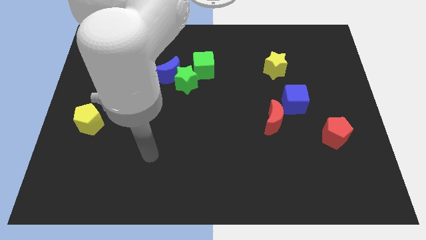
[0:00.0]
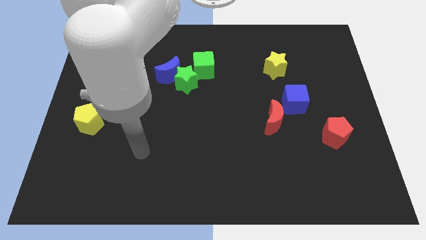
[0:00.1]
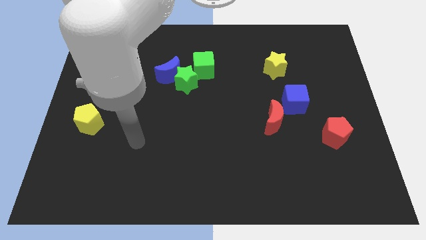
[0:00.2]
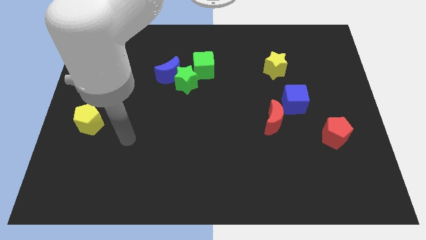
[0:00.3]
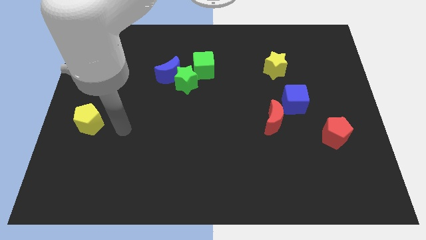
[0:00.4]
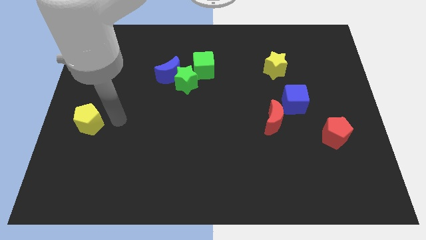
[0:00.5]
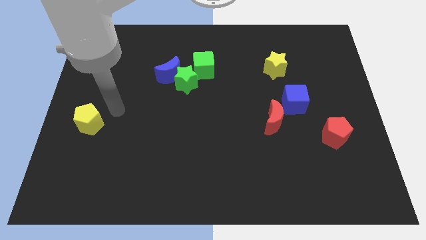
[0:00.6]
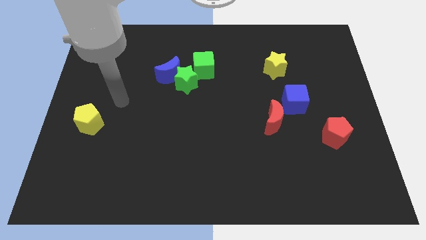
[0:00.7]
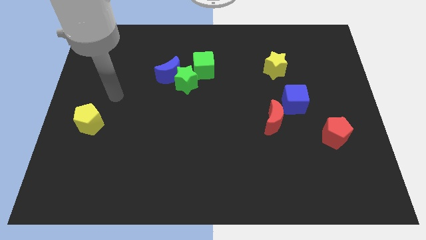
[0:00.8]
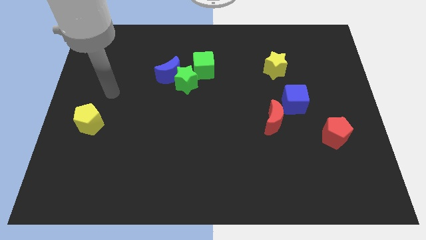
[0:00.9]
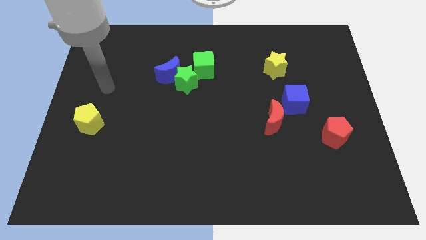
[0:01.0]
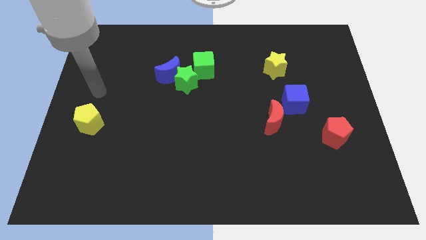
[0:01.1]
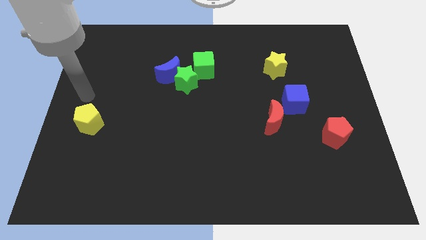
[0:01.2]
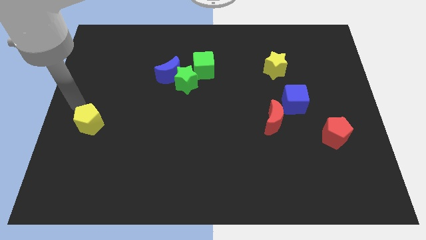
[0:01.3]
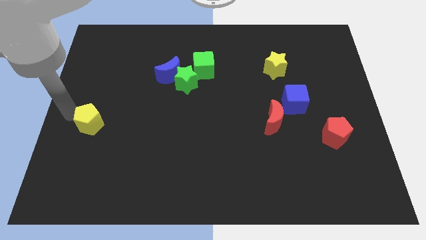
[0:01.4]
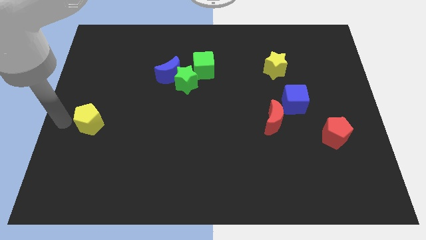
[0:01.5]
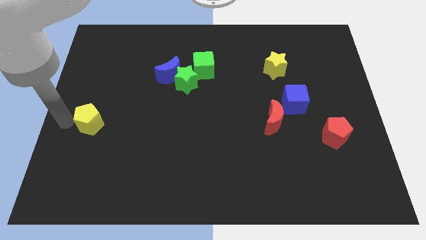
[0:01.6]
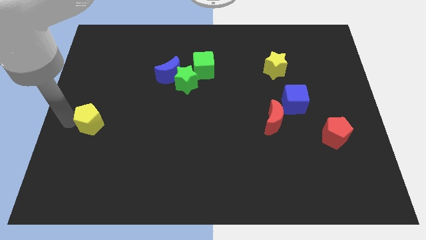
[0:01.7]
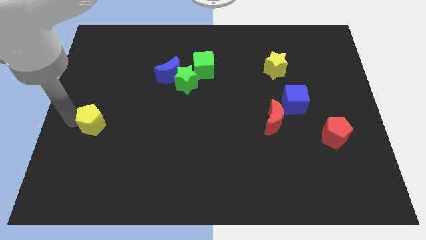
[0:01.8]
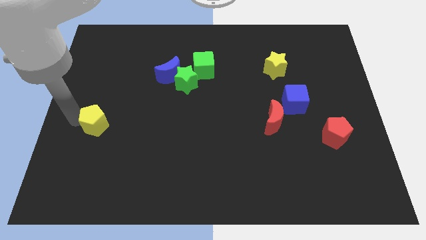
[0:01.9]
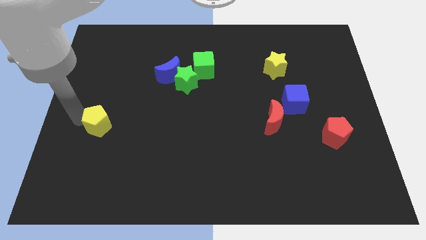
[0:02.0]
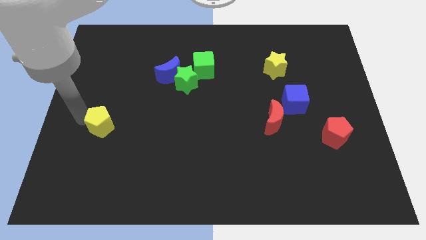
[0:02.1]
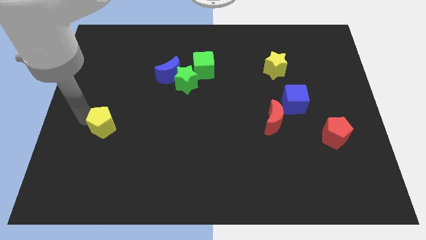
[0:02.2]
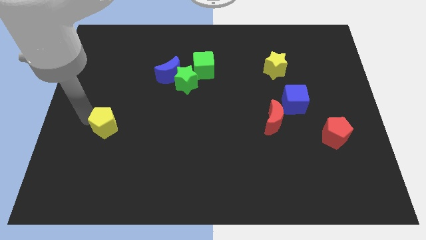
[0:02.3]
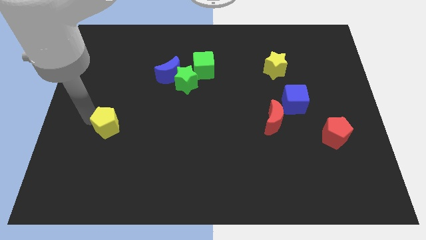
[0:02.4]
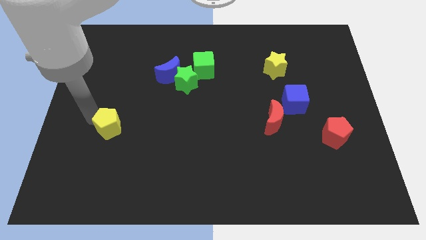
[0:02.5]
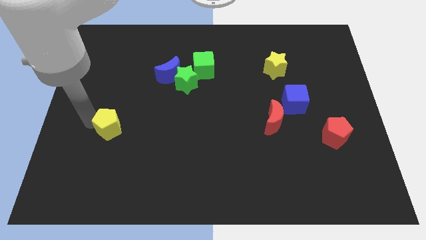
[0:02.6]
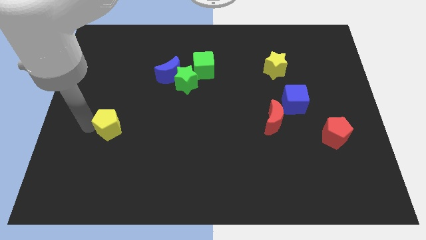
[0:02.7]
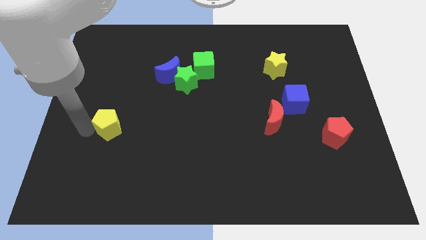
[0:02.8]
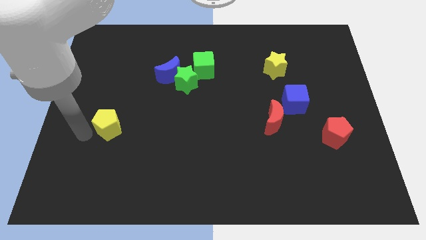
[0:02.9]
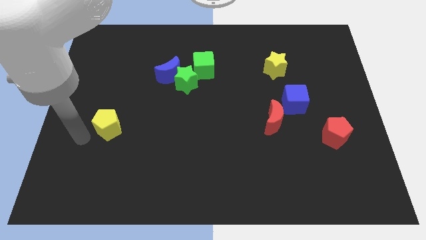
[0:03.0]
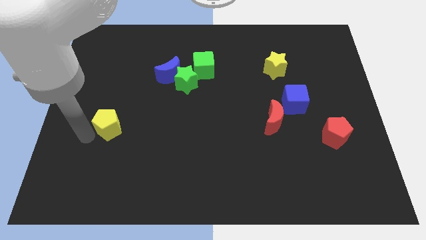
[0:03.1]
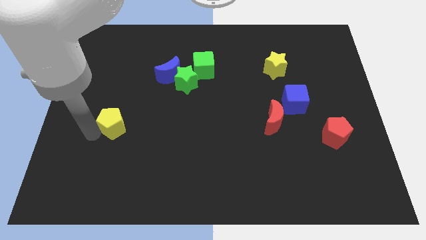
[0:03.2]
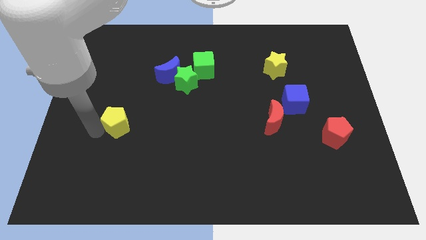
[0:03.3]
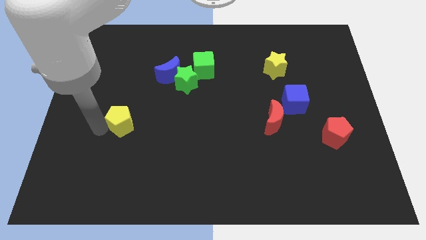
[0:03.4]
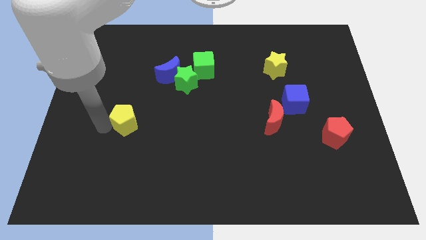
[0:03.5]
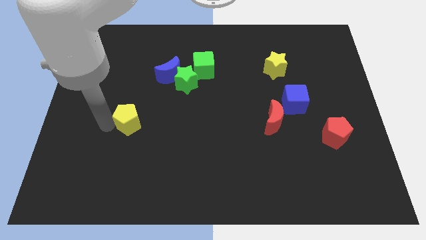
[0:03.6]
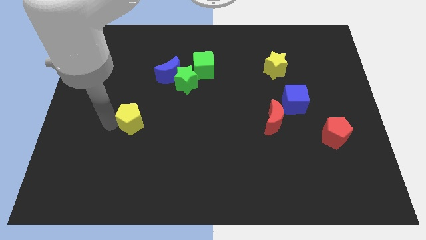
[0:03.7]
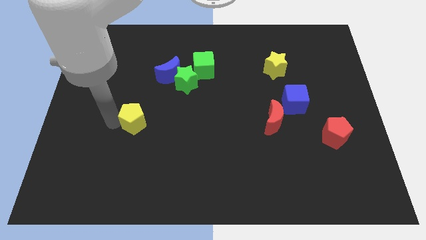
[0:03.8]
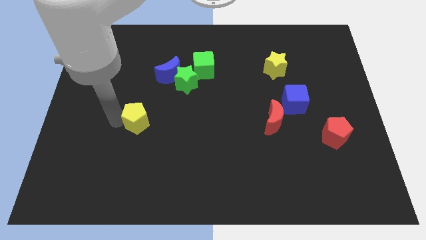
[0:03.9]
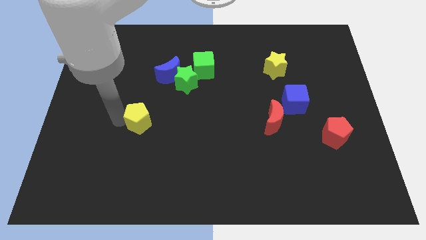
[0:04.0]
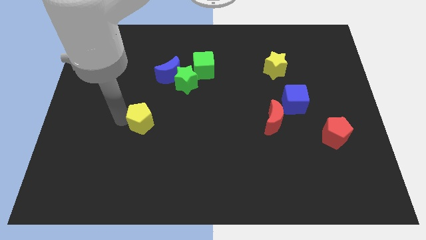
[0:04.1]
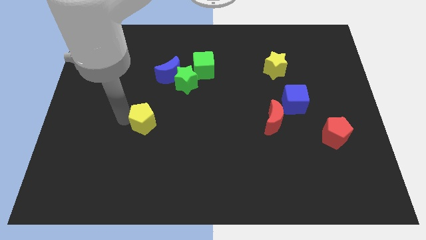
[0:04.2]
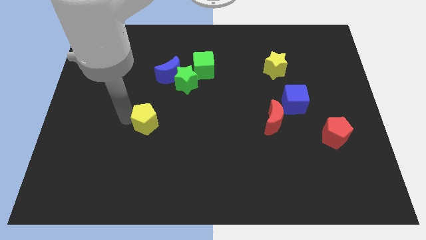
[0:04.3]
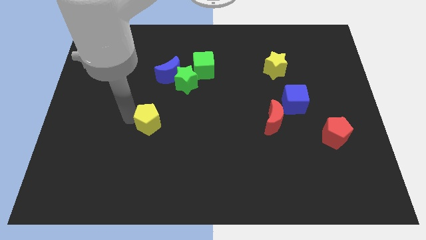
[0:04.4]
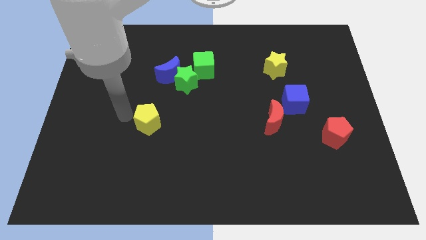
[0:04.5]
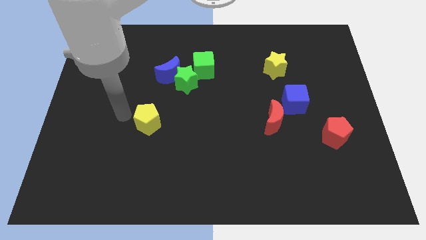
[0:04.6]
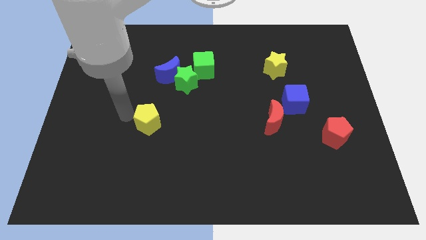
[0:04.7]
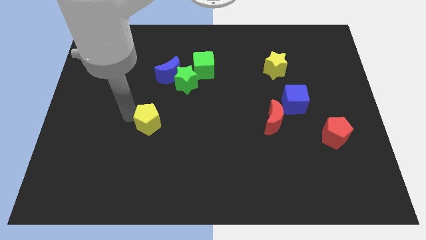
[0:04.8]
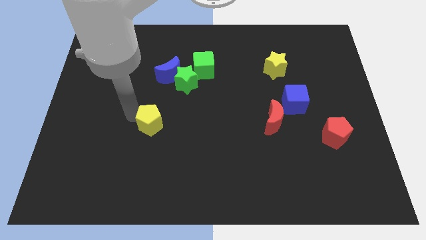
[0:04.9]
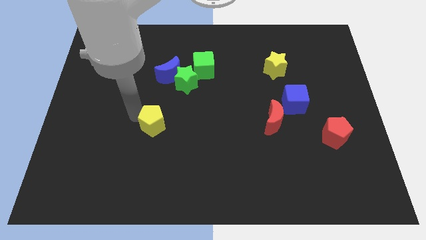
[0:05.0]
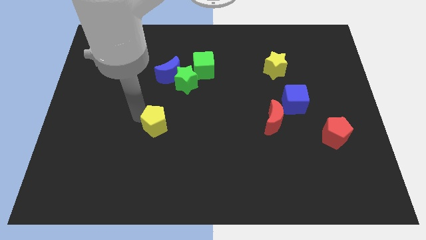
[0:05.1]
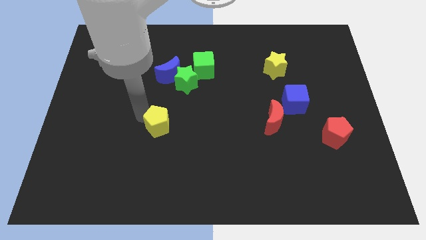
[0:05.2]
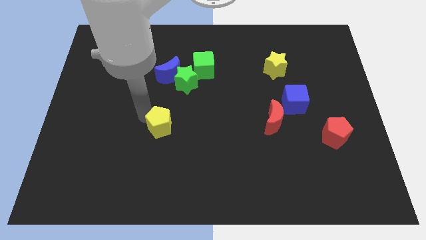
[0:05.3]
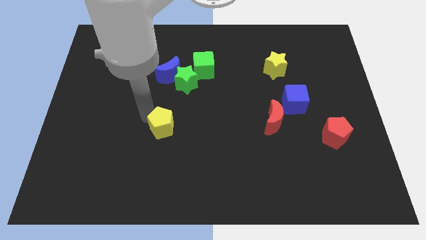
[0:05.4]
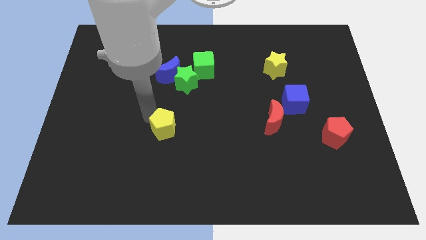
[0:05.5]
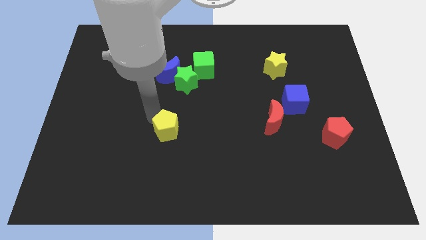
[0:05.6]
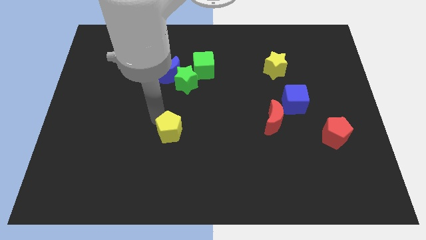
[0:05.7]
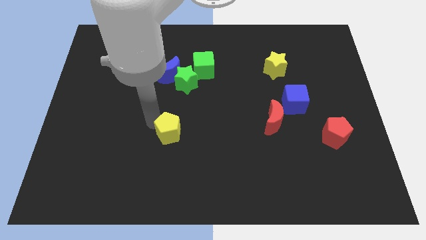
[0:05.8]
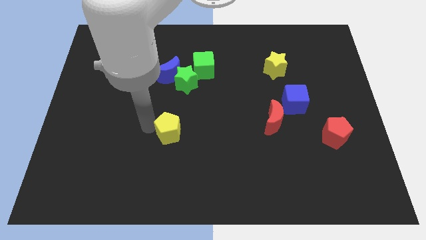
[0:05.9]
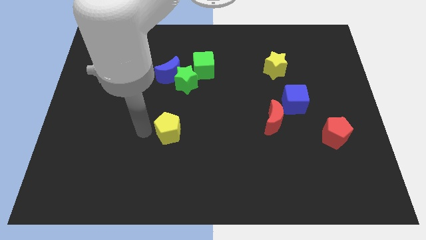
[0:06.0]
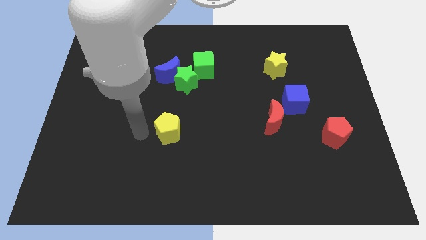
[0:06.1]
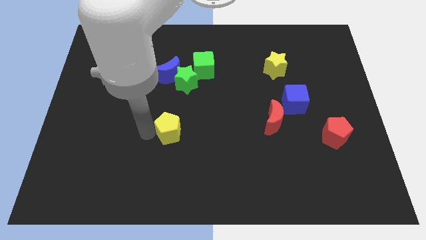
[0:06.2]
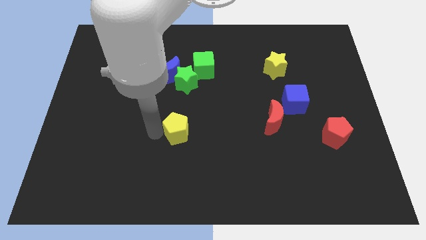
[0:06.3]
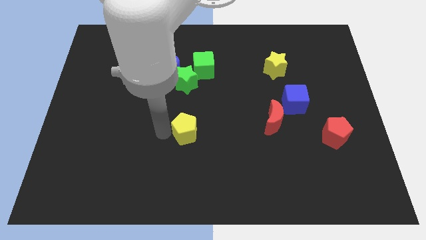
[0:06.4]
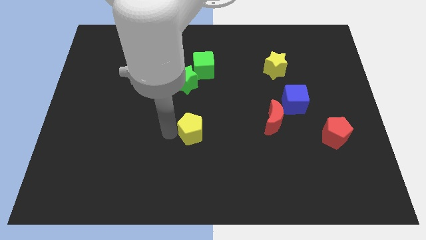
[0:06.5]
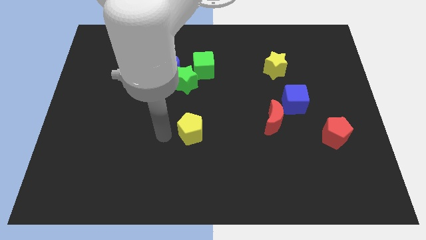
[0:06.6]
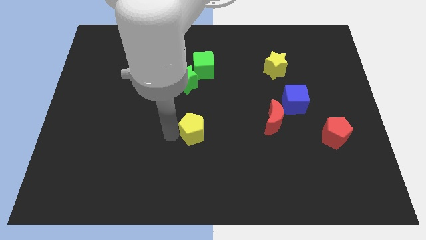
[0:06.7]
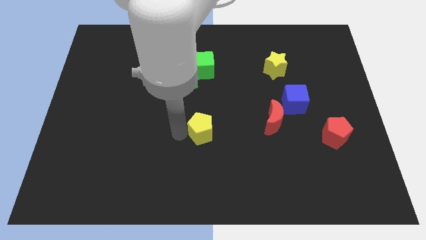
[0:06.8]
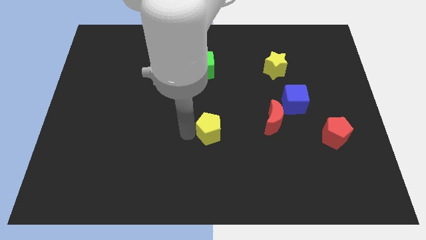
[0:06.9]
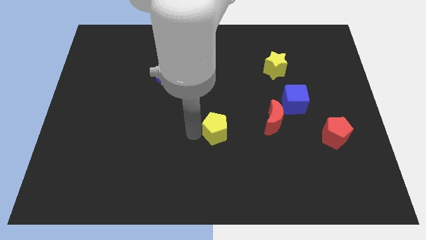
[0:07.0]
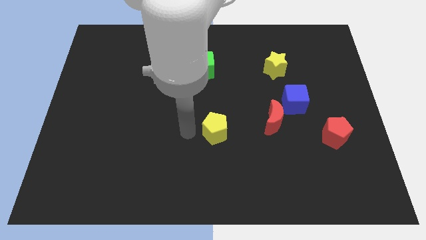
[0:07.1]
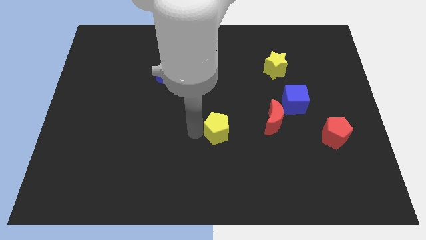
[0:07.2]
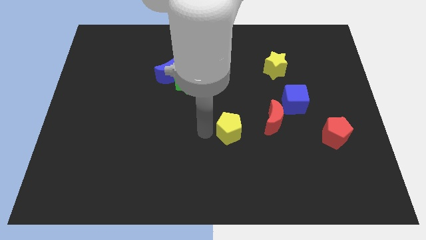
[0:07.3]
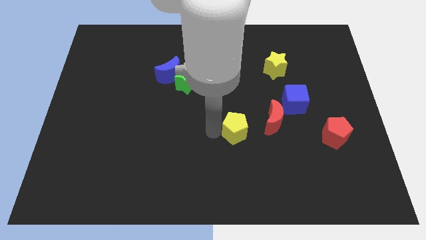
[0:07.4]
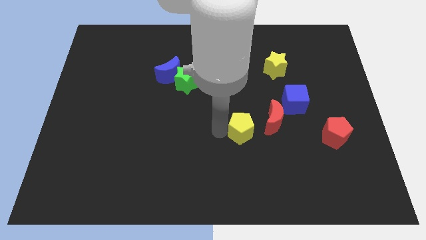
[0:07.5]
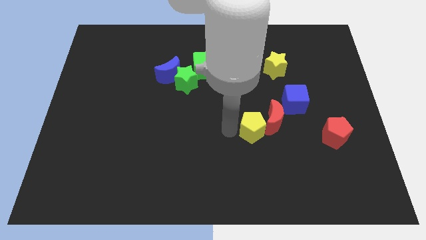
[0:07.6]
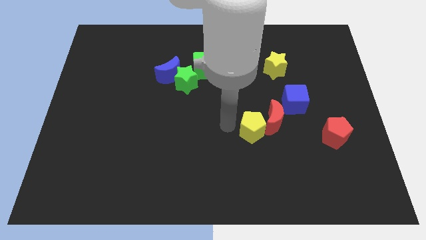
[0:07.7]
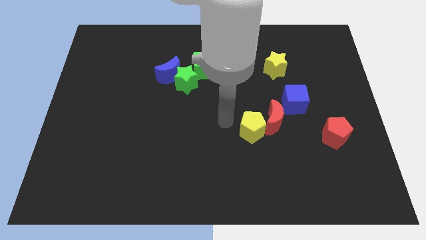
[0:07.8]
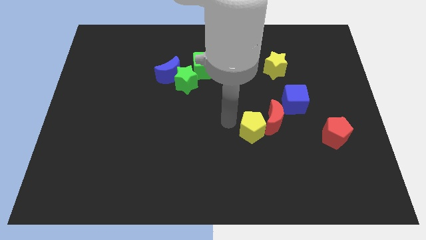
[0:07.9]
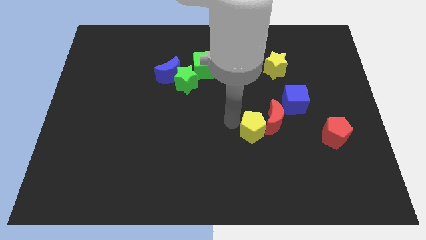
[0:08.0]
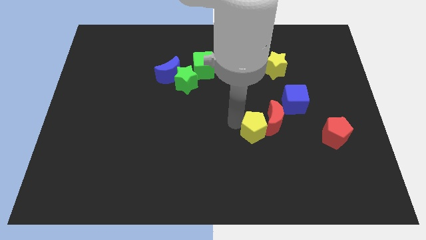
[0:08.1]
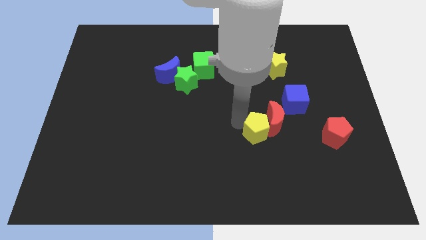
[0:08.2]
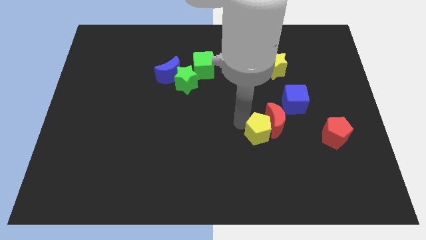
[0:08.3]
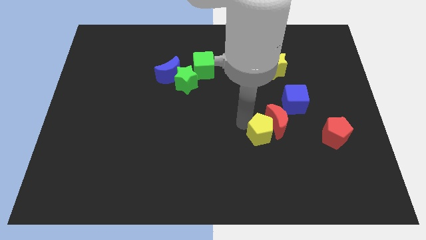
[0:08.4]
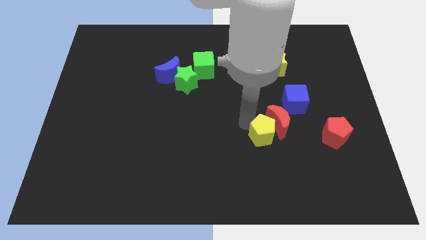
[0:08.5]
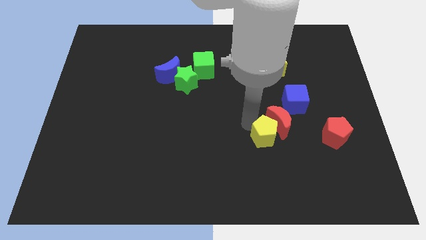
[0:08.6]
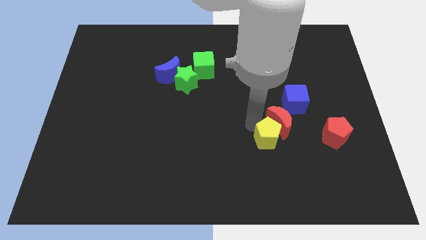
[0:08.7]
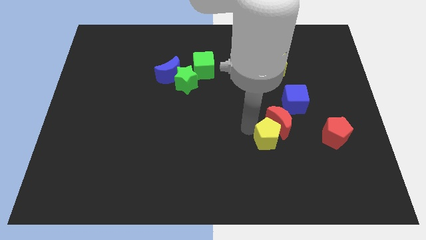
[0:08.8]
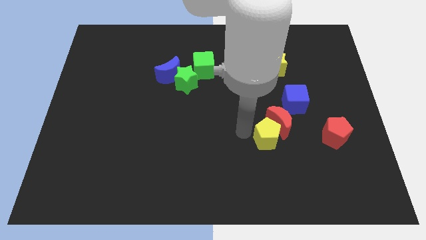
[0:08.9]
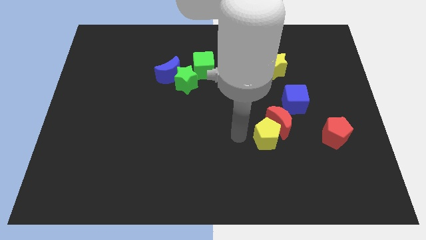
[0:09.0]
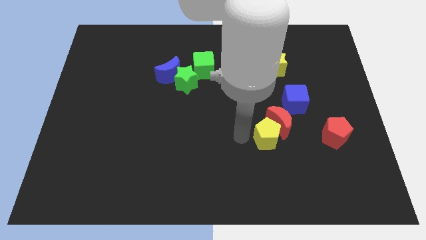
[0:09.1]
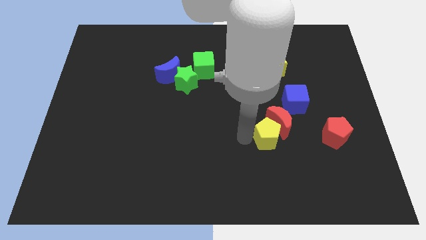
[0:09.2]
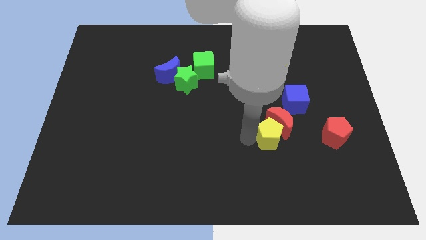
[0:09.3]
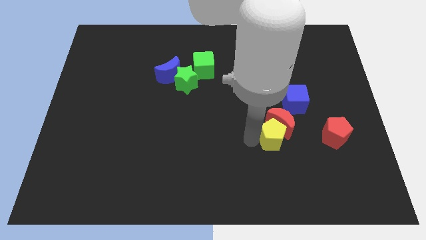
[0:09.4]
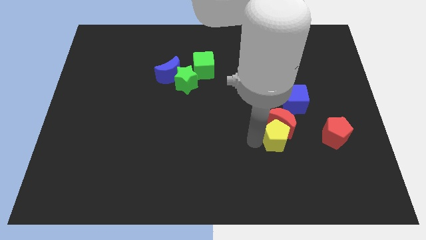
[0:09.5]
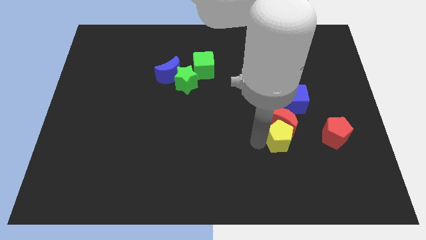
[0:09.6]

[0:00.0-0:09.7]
put the yellow pentagon below the blue cube
